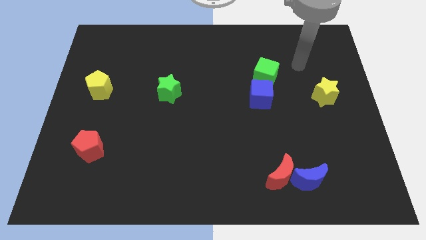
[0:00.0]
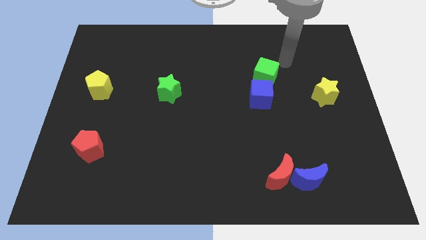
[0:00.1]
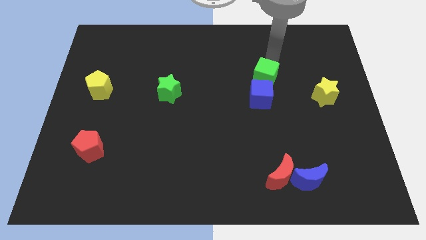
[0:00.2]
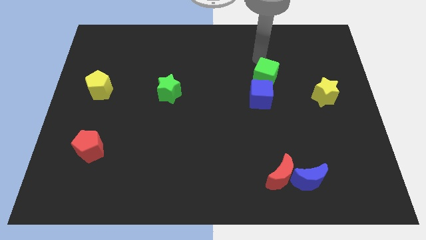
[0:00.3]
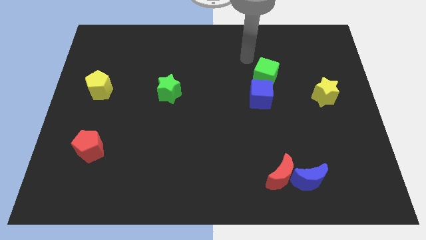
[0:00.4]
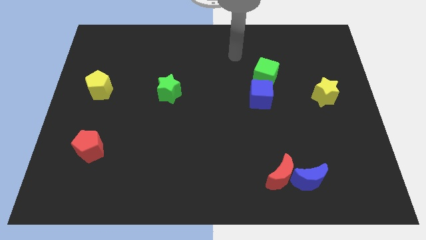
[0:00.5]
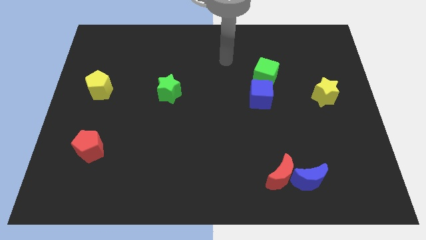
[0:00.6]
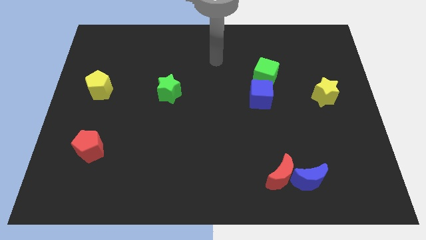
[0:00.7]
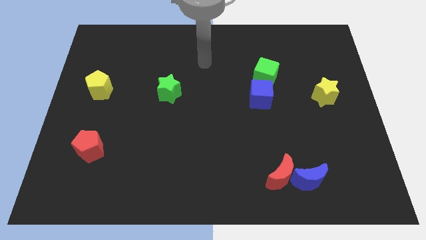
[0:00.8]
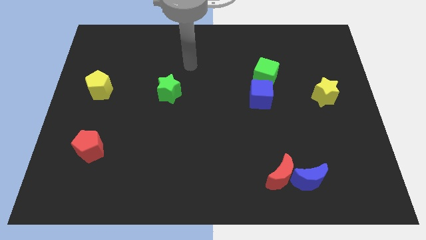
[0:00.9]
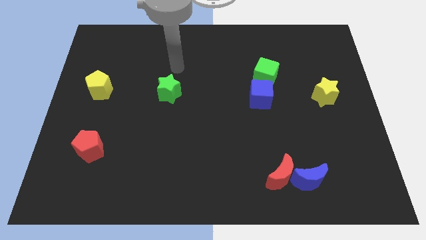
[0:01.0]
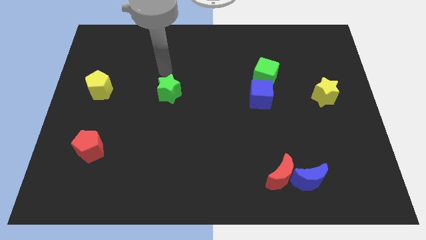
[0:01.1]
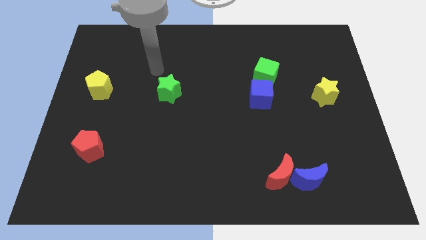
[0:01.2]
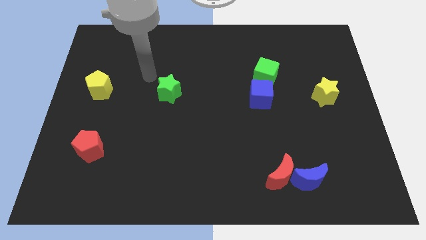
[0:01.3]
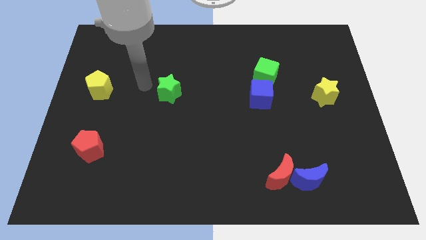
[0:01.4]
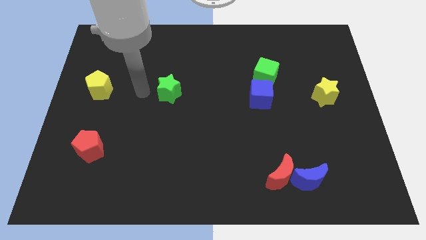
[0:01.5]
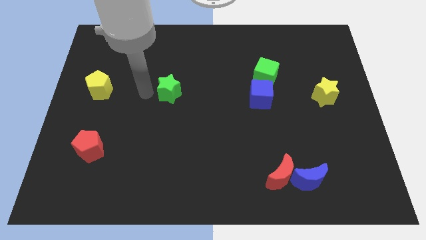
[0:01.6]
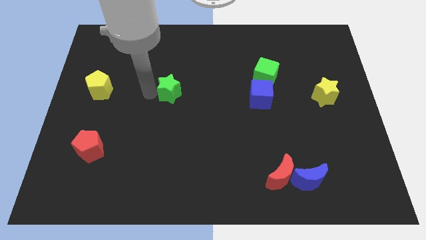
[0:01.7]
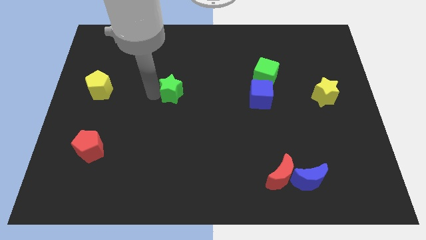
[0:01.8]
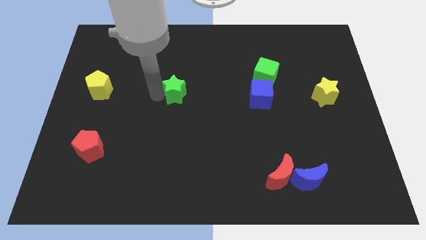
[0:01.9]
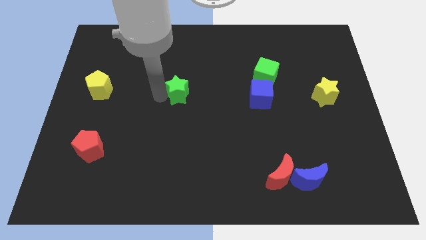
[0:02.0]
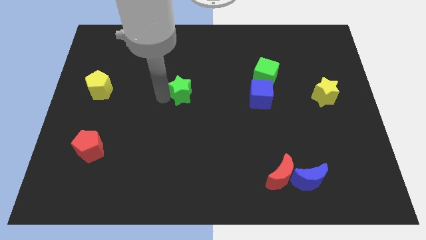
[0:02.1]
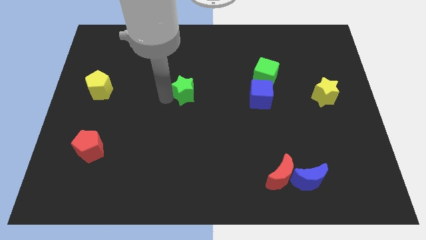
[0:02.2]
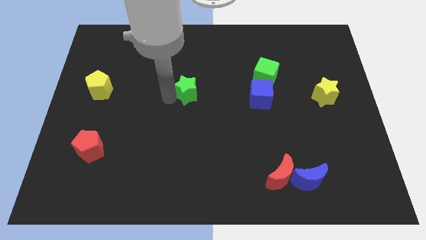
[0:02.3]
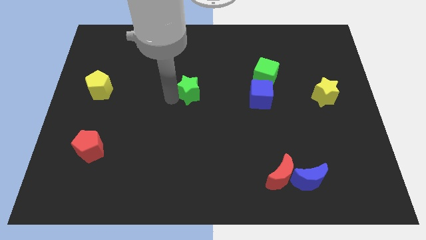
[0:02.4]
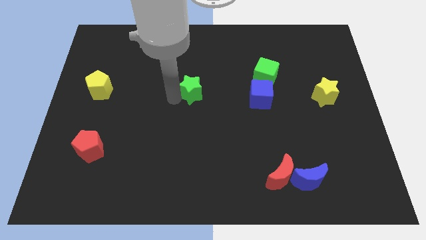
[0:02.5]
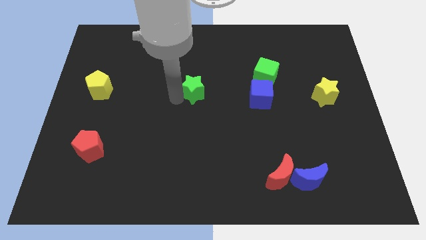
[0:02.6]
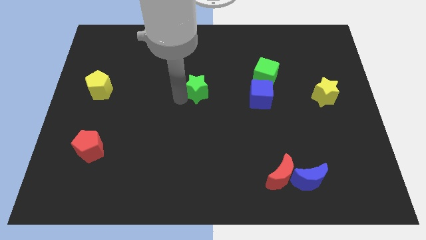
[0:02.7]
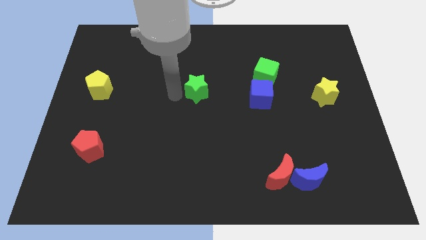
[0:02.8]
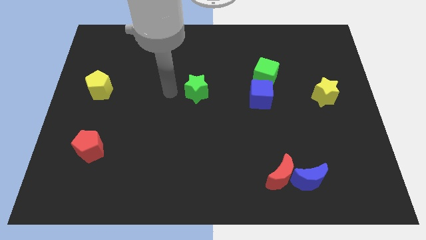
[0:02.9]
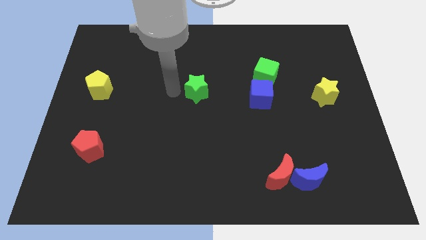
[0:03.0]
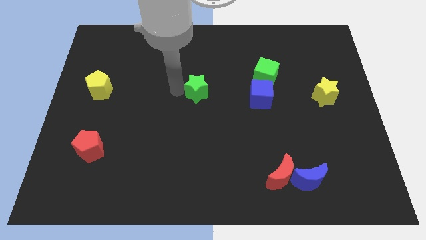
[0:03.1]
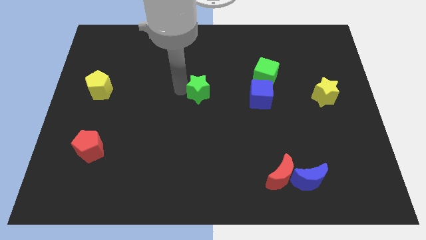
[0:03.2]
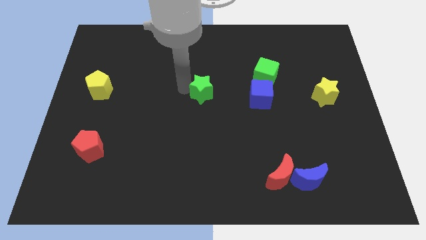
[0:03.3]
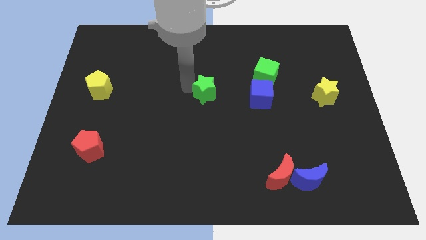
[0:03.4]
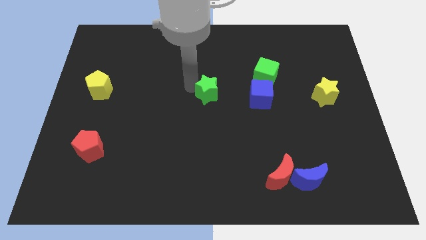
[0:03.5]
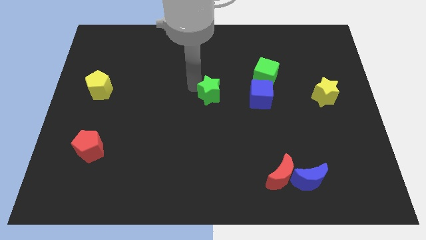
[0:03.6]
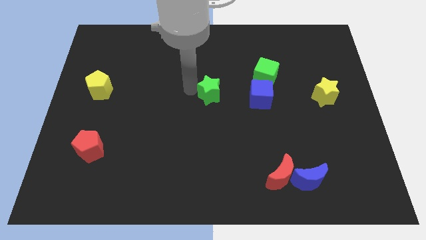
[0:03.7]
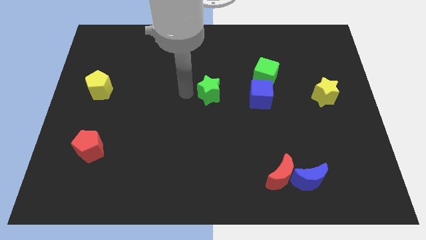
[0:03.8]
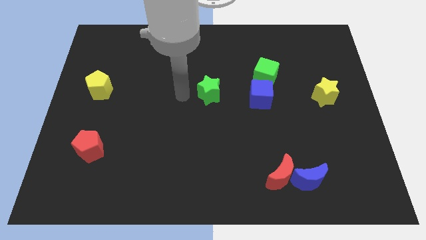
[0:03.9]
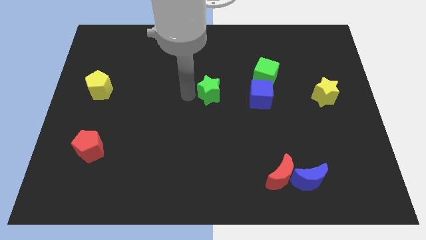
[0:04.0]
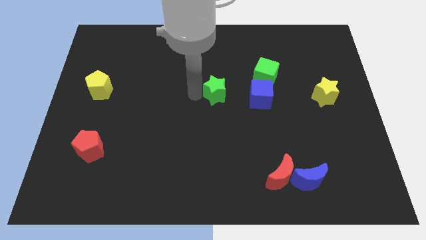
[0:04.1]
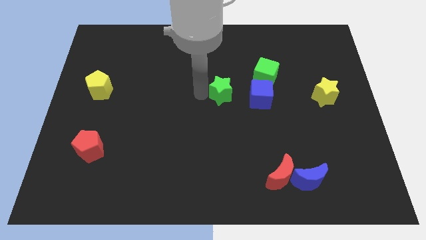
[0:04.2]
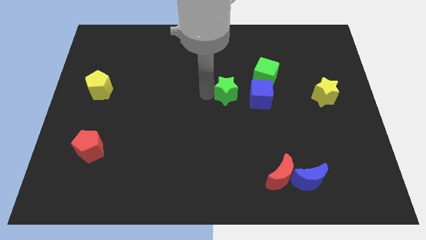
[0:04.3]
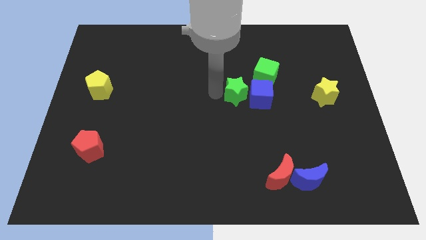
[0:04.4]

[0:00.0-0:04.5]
push the green star towards the blue cube

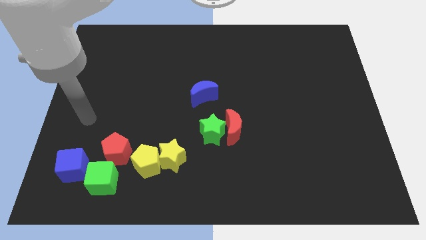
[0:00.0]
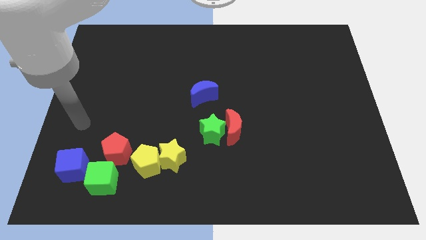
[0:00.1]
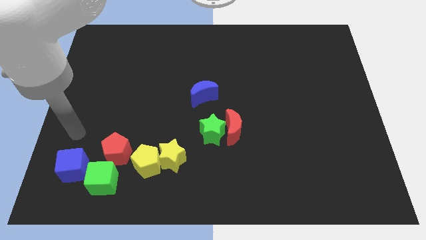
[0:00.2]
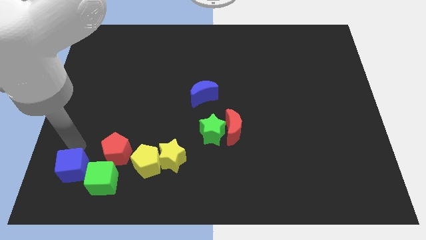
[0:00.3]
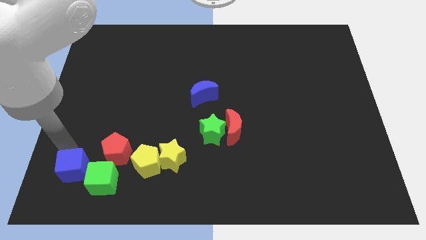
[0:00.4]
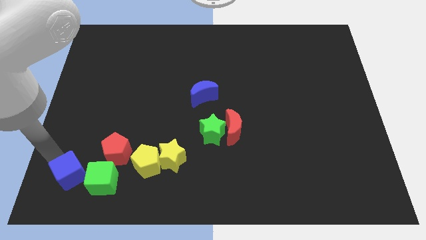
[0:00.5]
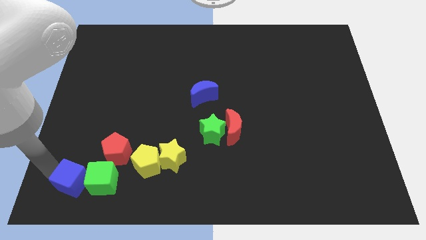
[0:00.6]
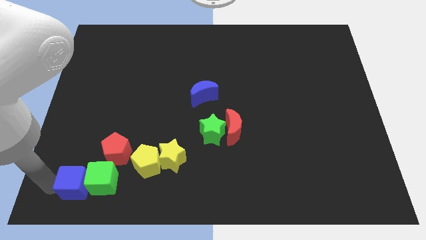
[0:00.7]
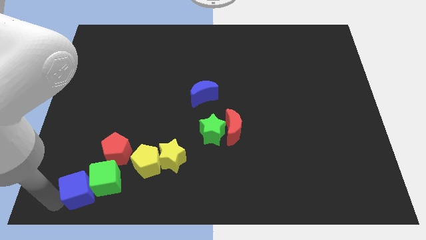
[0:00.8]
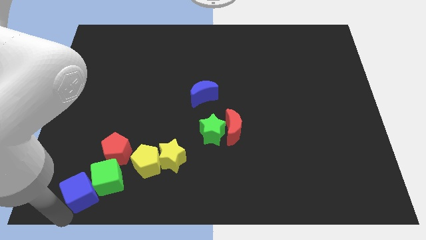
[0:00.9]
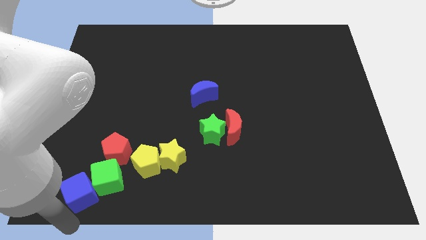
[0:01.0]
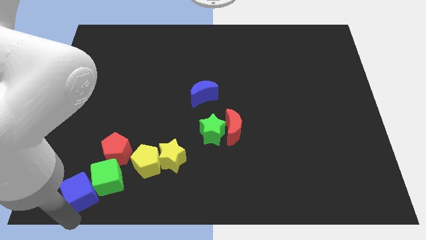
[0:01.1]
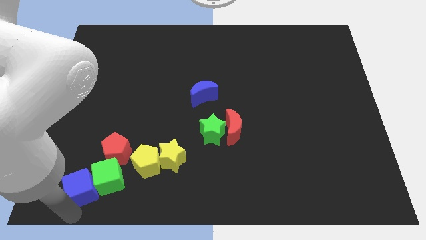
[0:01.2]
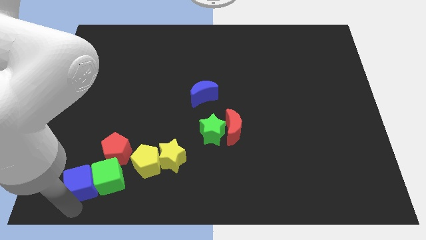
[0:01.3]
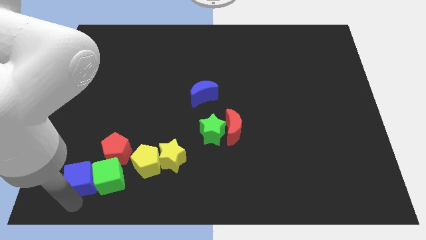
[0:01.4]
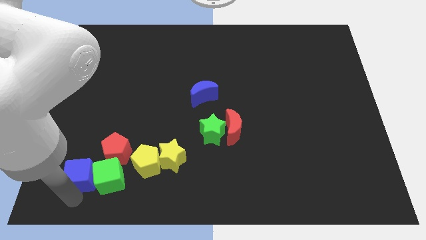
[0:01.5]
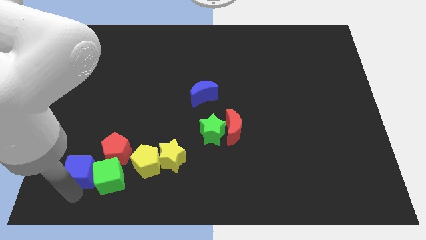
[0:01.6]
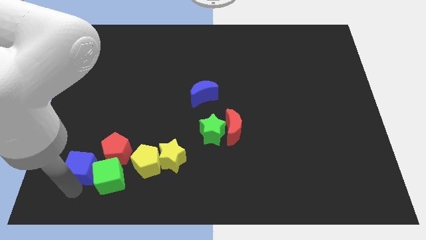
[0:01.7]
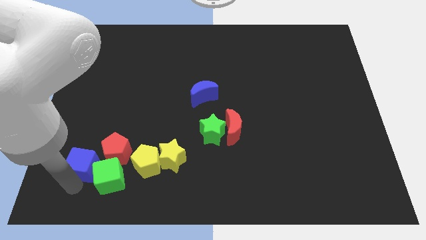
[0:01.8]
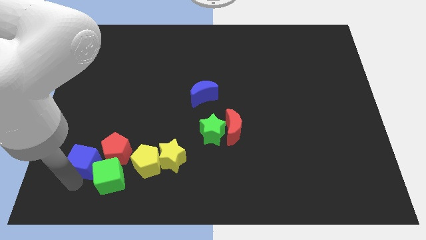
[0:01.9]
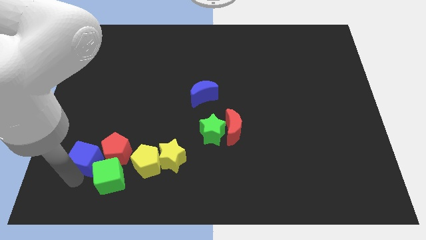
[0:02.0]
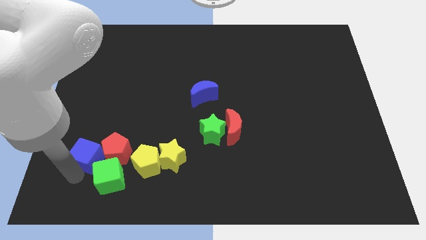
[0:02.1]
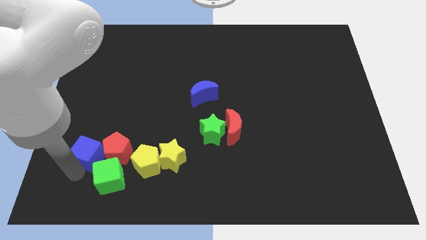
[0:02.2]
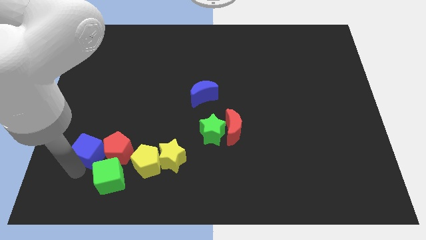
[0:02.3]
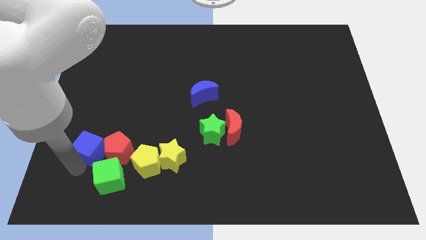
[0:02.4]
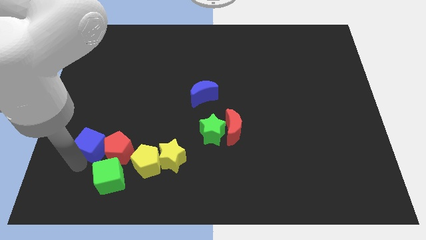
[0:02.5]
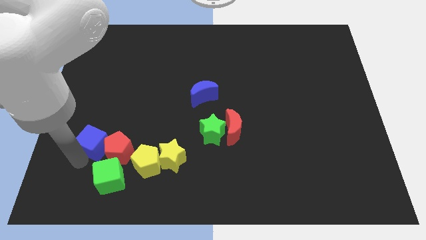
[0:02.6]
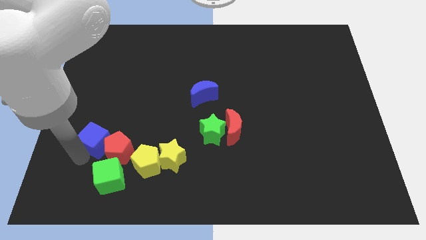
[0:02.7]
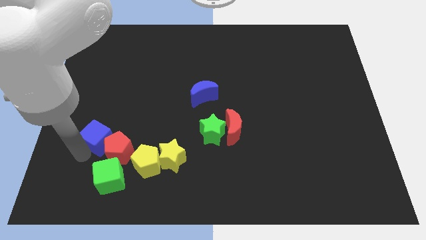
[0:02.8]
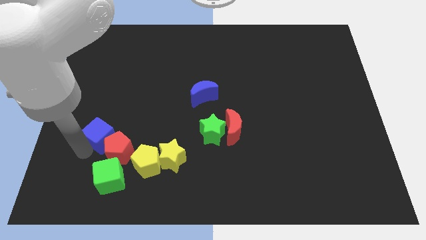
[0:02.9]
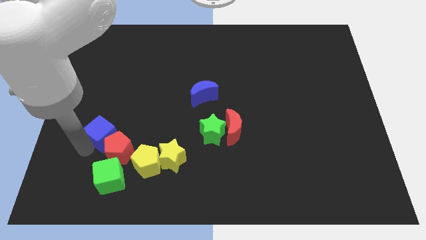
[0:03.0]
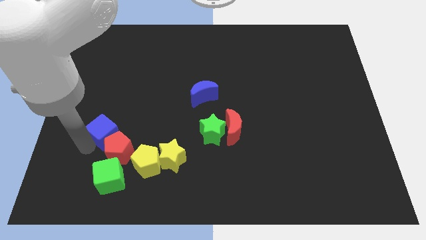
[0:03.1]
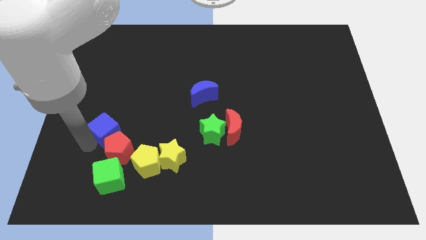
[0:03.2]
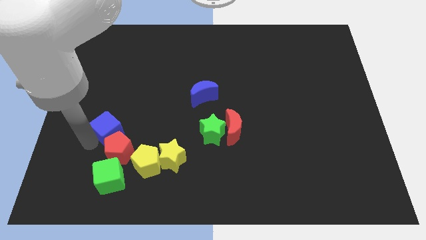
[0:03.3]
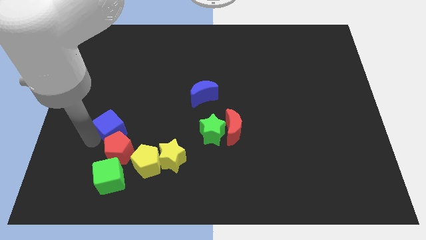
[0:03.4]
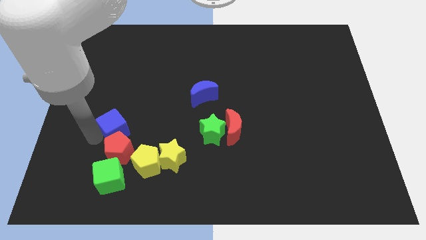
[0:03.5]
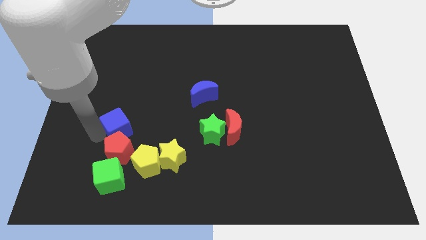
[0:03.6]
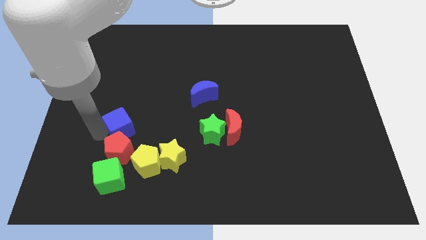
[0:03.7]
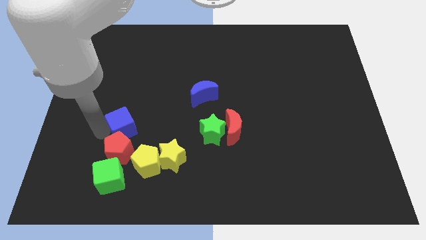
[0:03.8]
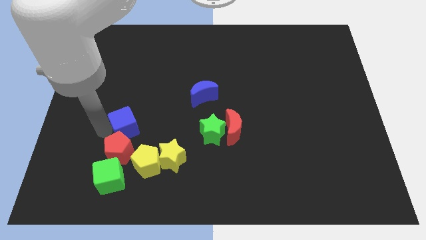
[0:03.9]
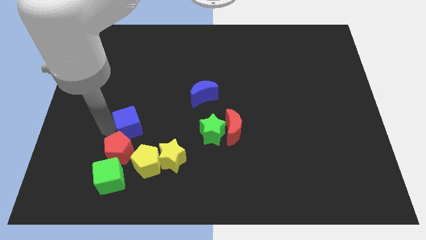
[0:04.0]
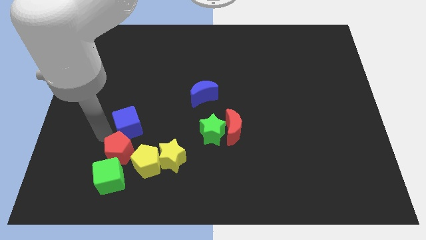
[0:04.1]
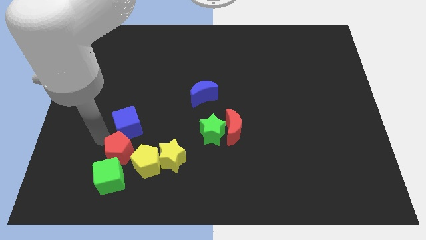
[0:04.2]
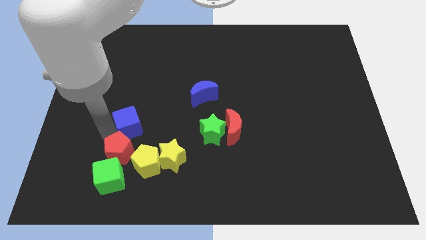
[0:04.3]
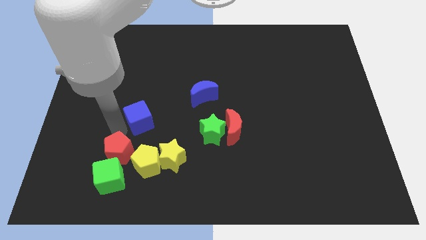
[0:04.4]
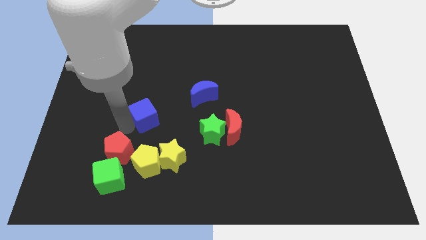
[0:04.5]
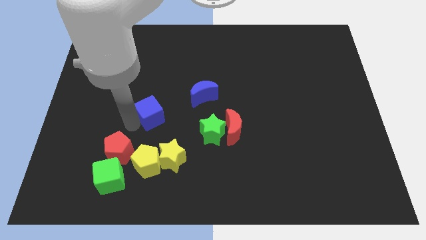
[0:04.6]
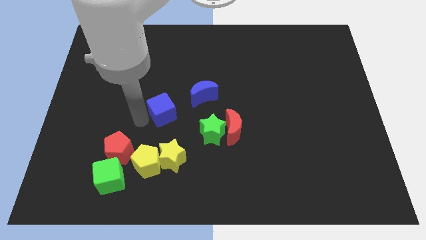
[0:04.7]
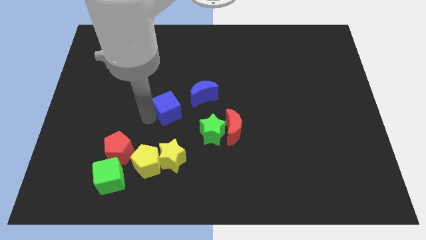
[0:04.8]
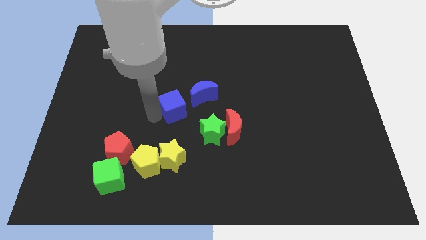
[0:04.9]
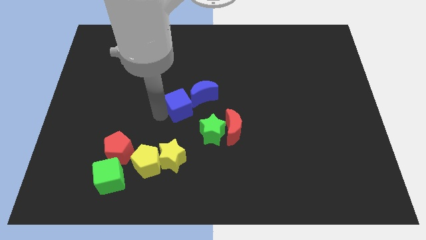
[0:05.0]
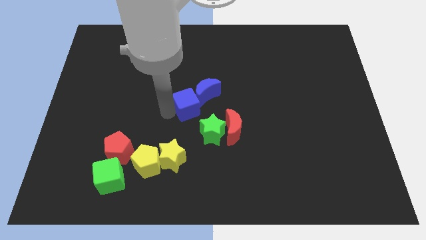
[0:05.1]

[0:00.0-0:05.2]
slide the blue cube towards the blue moon
